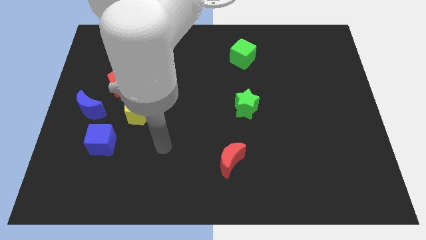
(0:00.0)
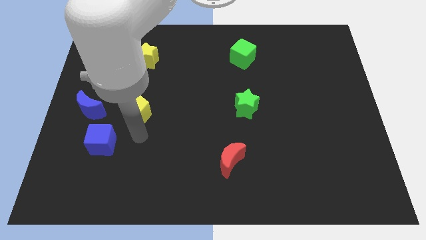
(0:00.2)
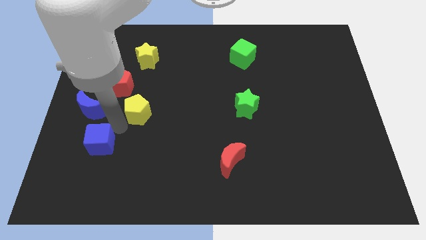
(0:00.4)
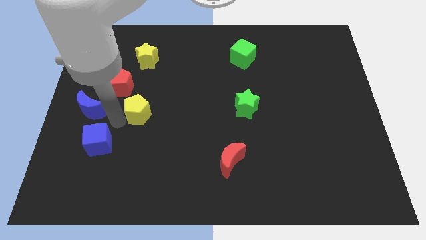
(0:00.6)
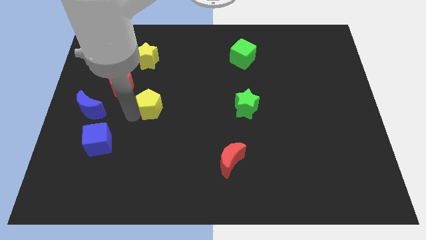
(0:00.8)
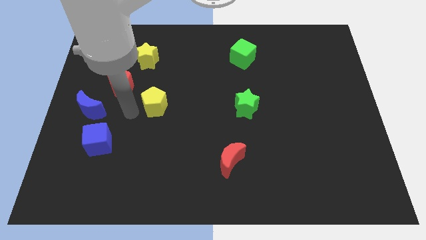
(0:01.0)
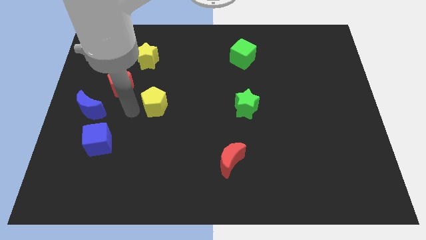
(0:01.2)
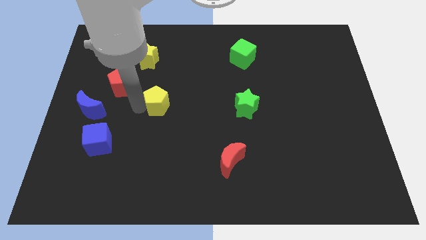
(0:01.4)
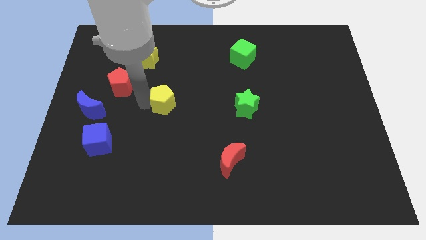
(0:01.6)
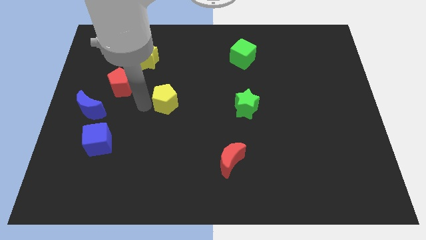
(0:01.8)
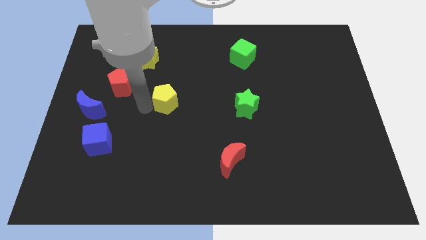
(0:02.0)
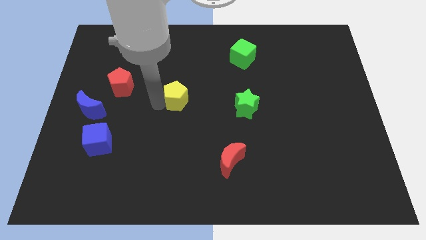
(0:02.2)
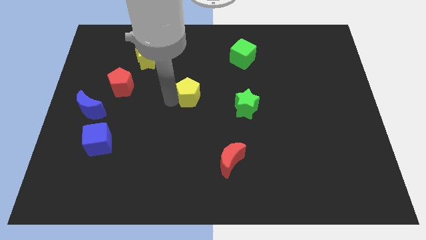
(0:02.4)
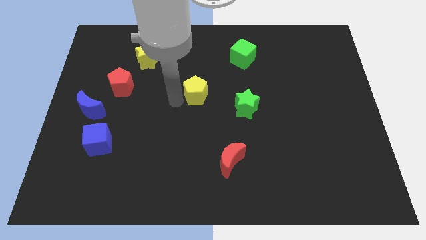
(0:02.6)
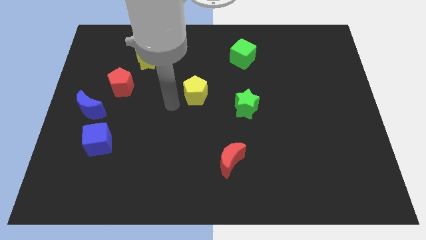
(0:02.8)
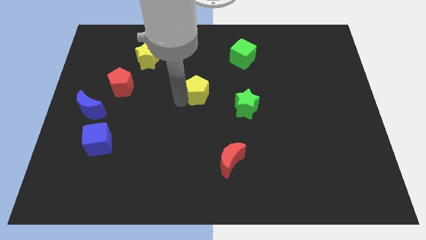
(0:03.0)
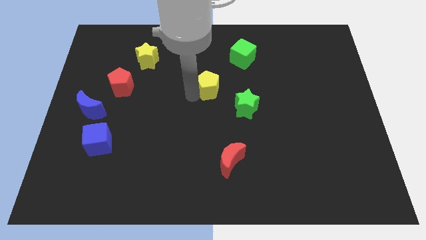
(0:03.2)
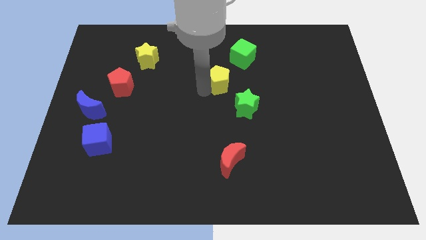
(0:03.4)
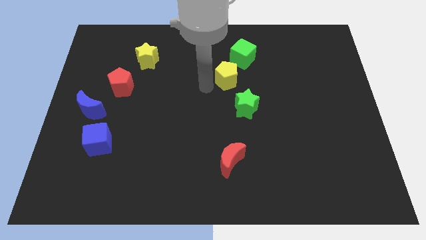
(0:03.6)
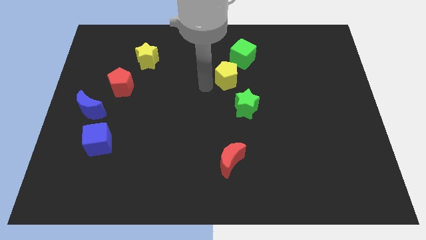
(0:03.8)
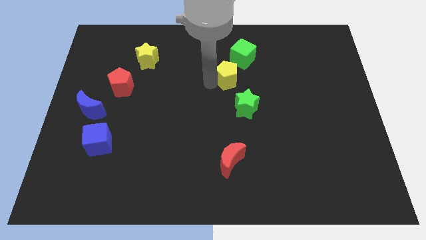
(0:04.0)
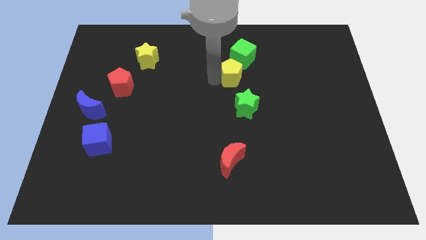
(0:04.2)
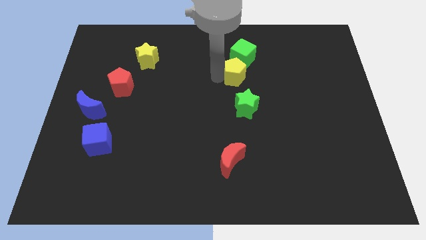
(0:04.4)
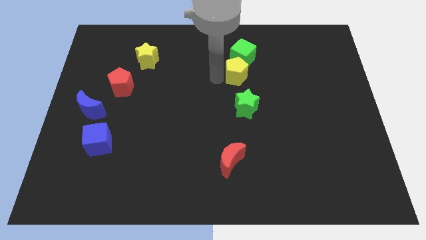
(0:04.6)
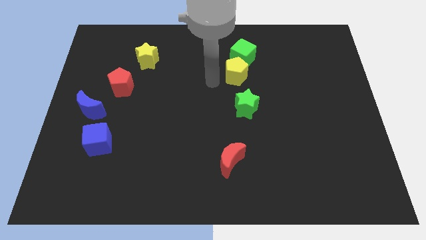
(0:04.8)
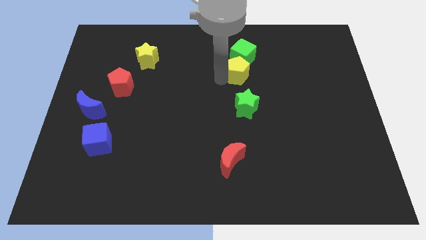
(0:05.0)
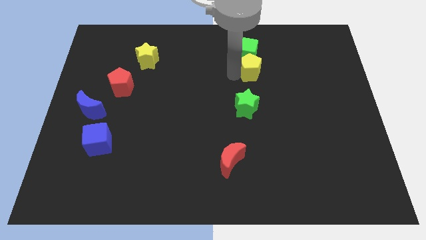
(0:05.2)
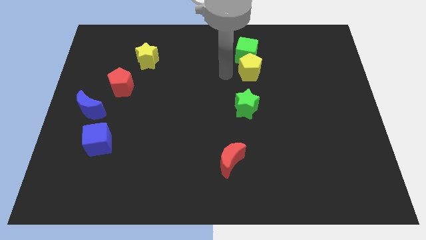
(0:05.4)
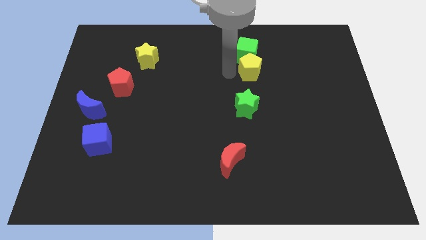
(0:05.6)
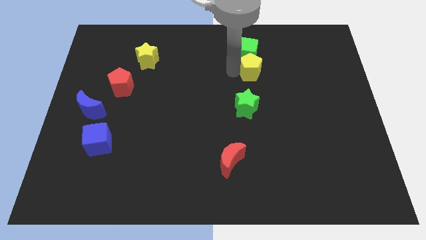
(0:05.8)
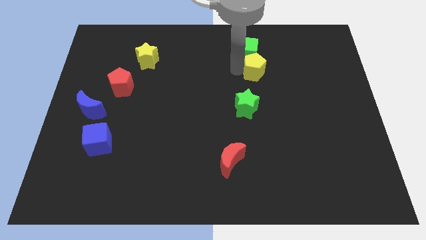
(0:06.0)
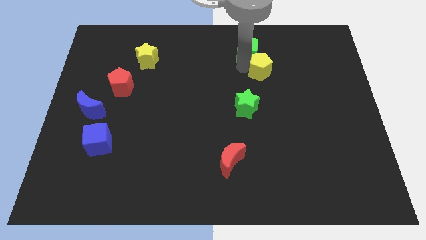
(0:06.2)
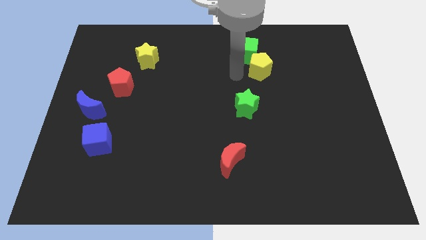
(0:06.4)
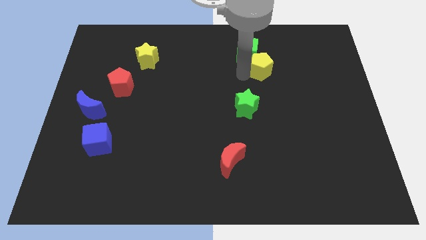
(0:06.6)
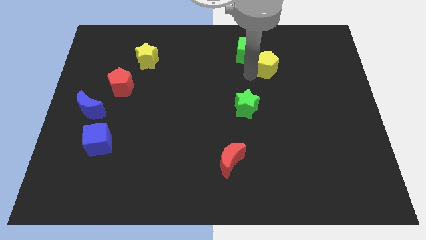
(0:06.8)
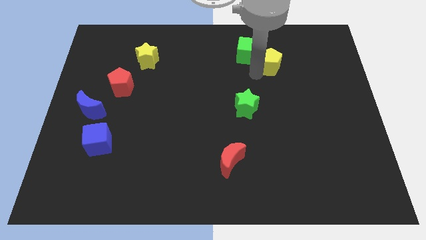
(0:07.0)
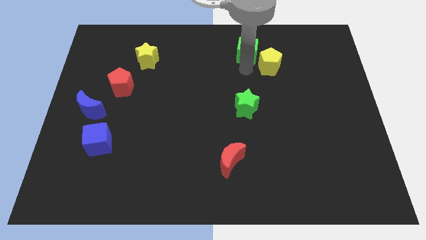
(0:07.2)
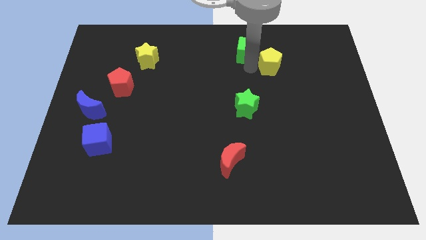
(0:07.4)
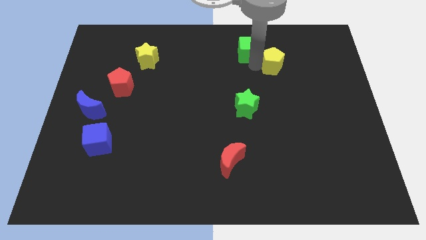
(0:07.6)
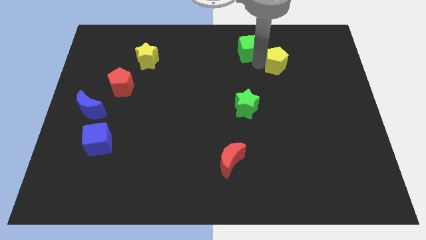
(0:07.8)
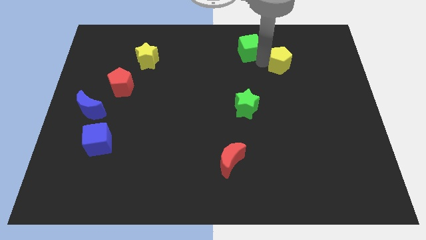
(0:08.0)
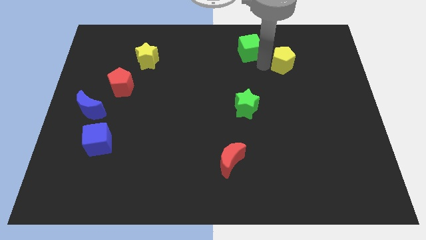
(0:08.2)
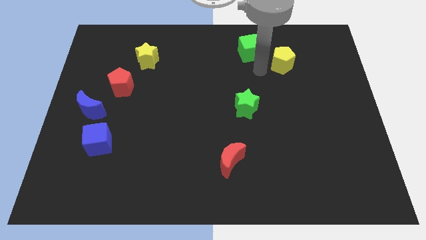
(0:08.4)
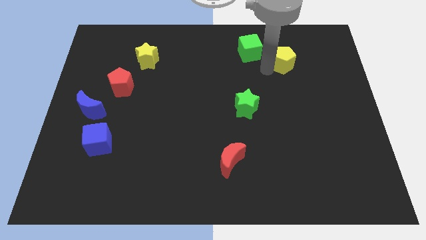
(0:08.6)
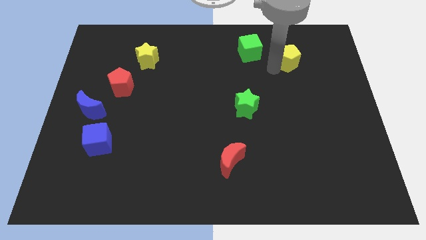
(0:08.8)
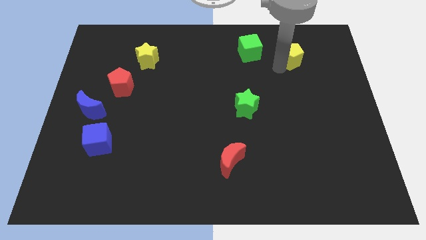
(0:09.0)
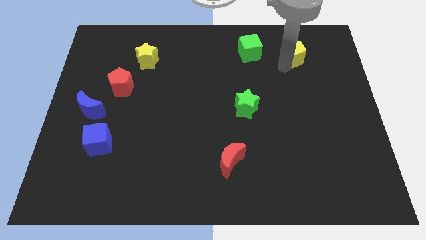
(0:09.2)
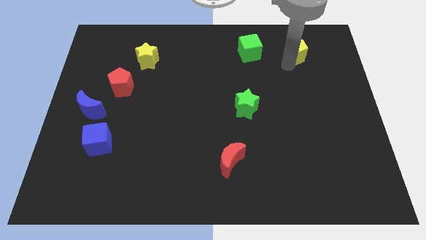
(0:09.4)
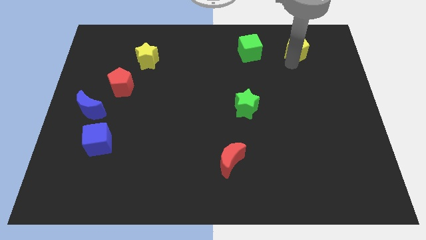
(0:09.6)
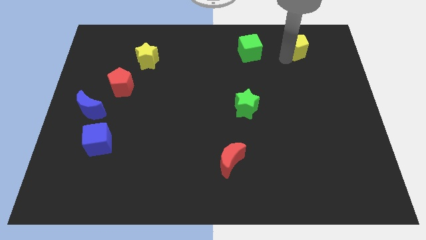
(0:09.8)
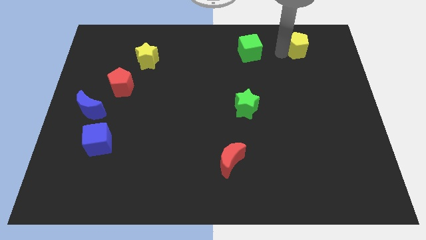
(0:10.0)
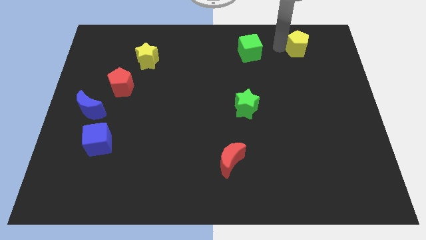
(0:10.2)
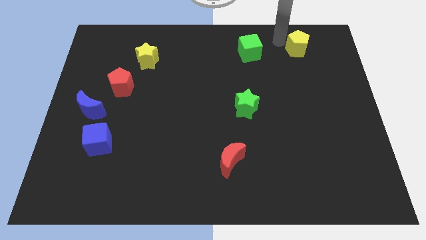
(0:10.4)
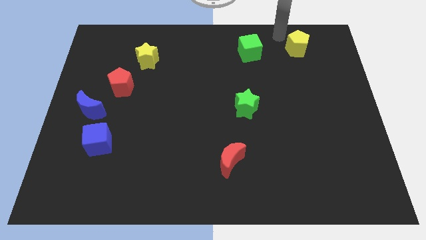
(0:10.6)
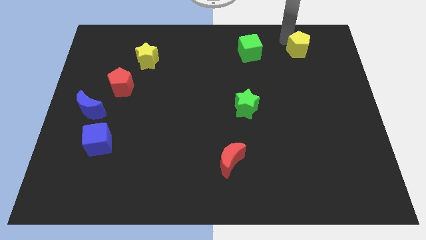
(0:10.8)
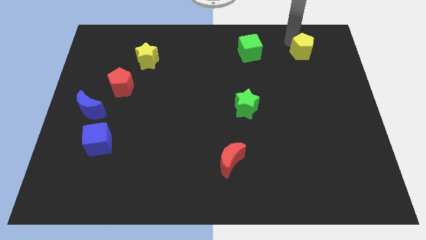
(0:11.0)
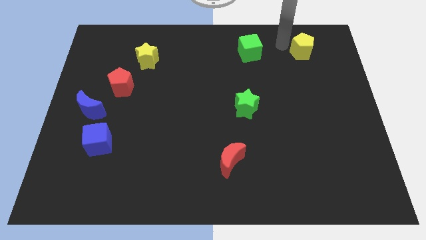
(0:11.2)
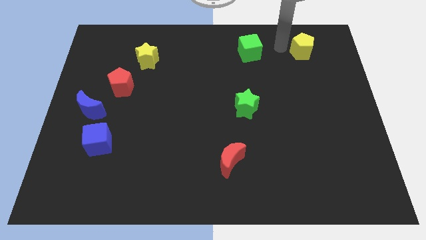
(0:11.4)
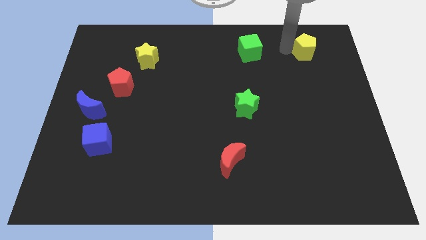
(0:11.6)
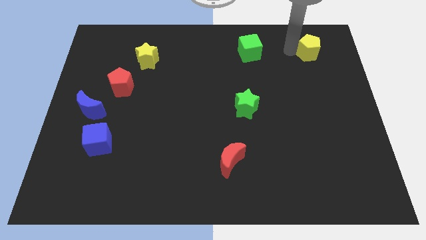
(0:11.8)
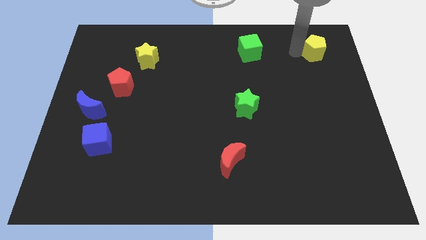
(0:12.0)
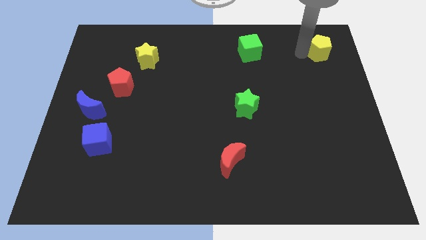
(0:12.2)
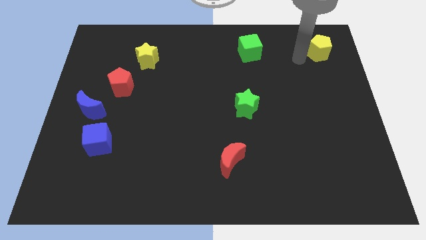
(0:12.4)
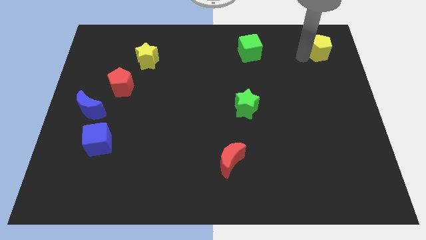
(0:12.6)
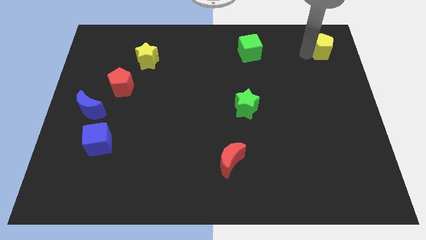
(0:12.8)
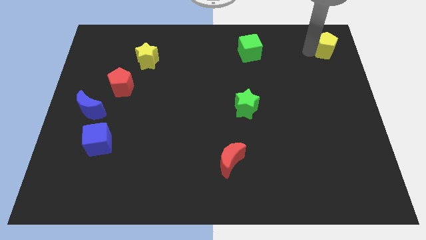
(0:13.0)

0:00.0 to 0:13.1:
push the yellow pentagon to the top right
